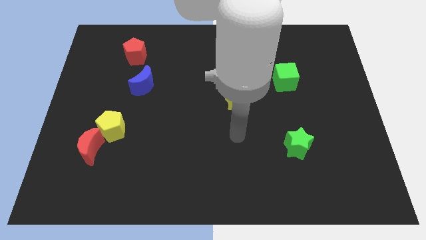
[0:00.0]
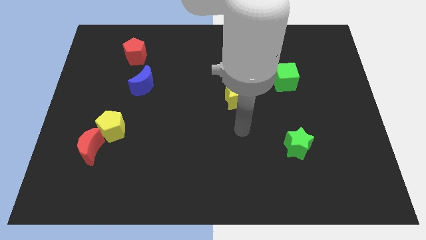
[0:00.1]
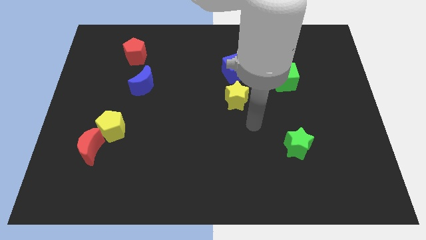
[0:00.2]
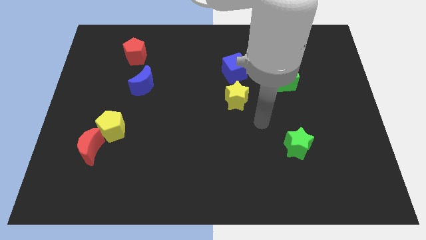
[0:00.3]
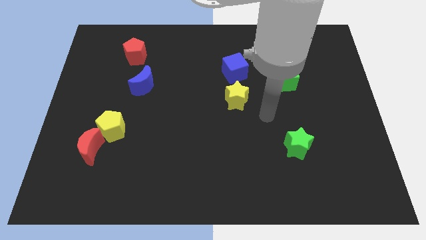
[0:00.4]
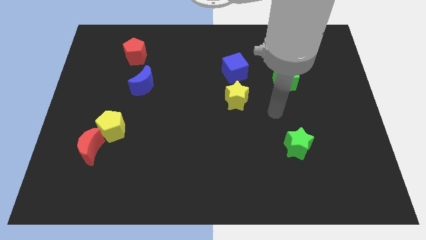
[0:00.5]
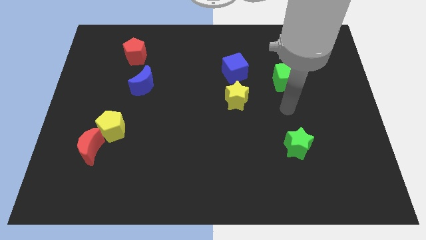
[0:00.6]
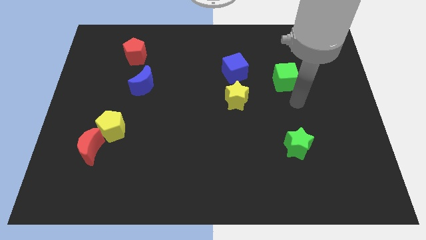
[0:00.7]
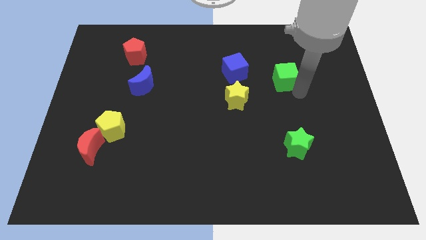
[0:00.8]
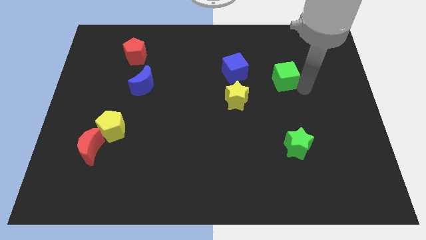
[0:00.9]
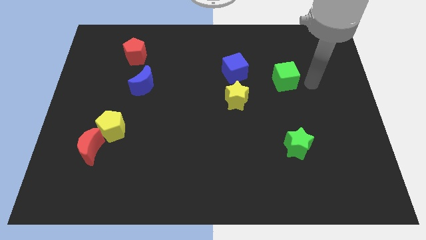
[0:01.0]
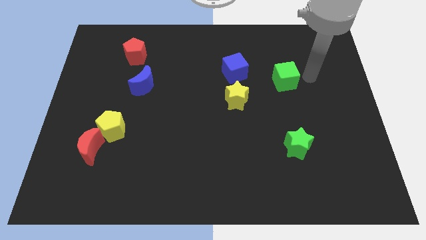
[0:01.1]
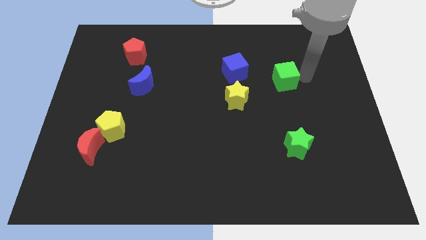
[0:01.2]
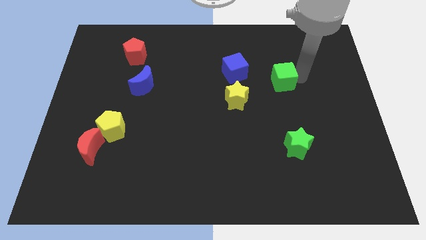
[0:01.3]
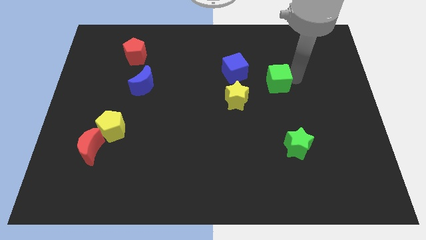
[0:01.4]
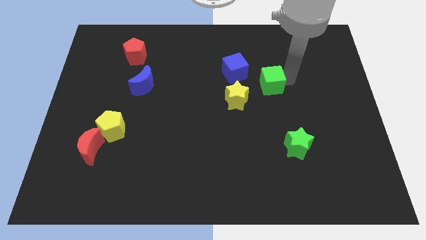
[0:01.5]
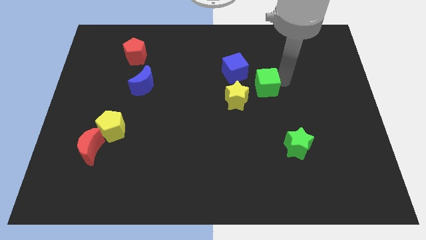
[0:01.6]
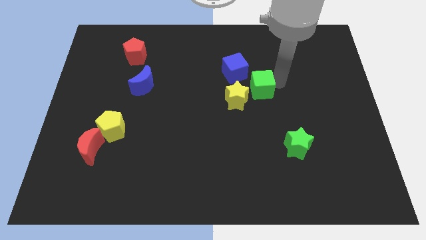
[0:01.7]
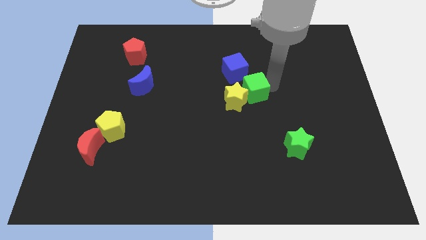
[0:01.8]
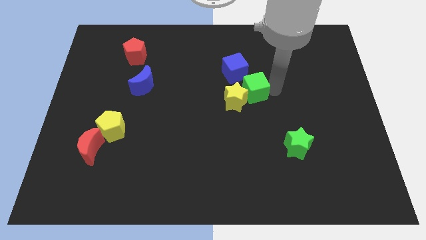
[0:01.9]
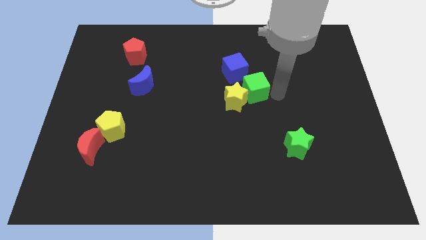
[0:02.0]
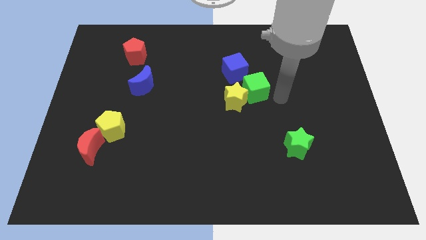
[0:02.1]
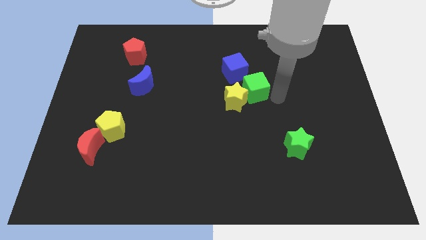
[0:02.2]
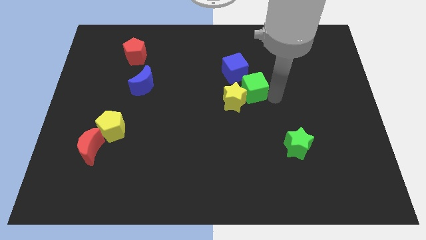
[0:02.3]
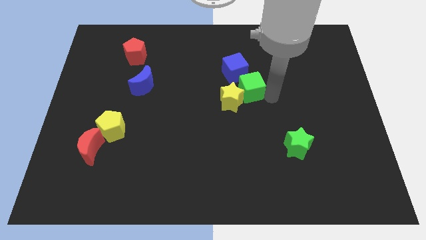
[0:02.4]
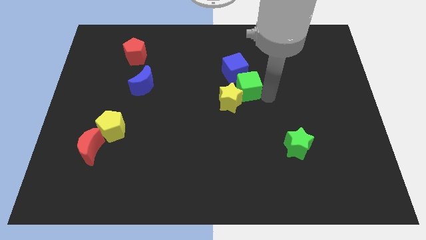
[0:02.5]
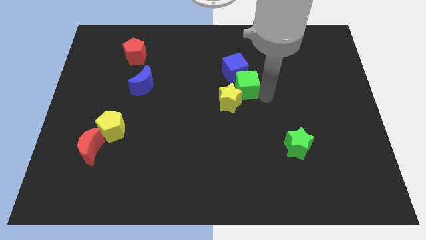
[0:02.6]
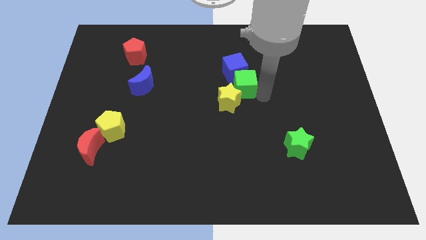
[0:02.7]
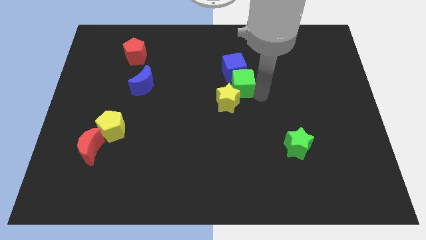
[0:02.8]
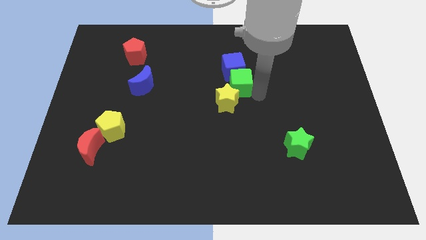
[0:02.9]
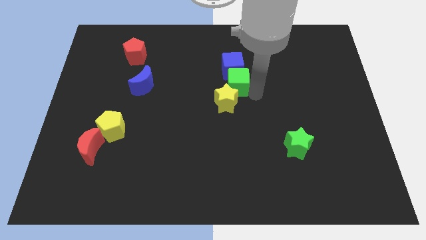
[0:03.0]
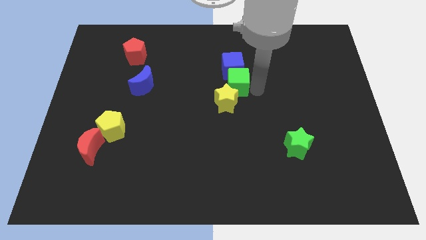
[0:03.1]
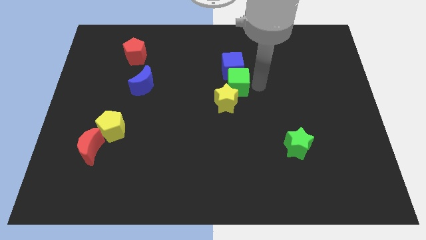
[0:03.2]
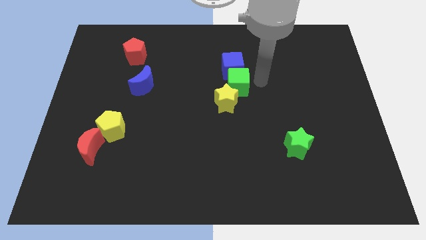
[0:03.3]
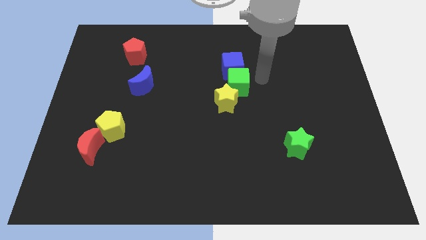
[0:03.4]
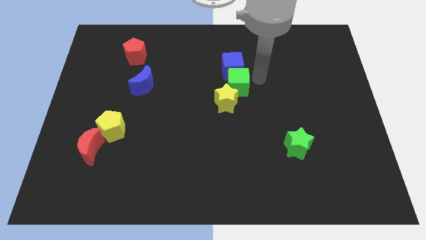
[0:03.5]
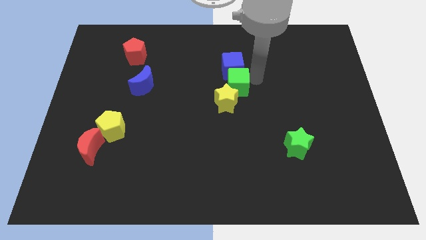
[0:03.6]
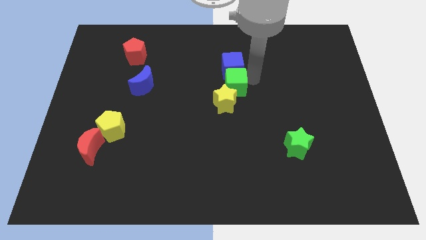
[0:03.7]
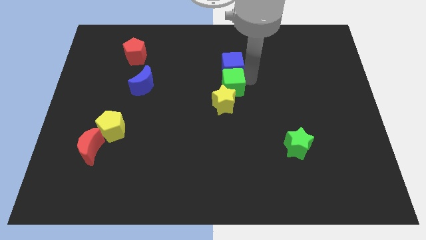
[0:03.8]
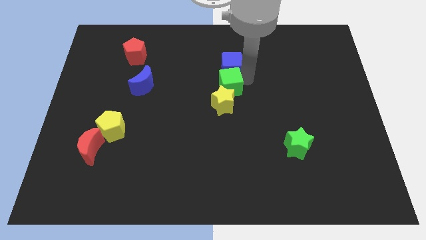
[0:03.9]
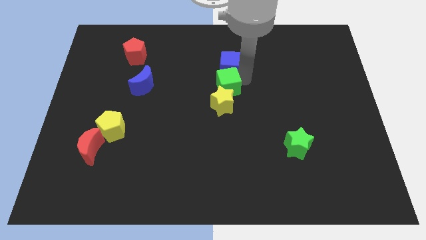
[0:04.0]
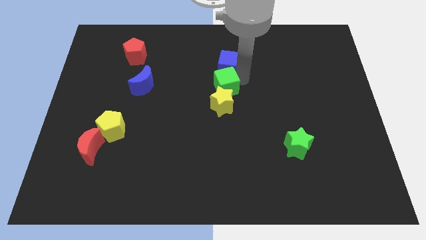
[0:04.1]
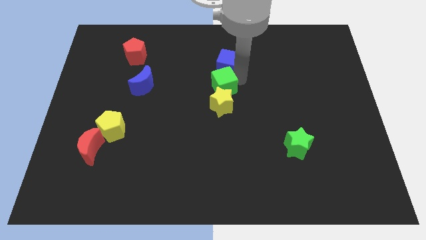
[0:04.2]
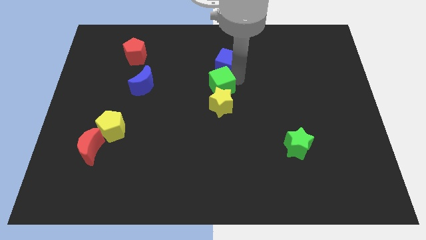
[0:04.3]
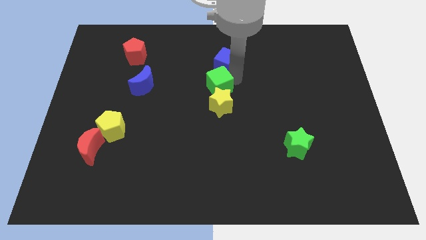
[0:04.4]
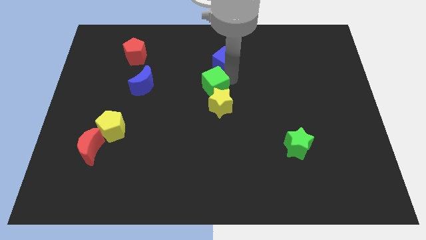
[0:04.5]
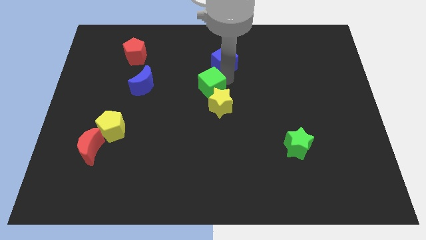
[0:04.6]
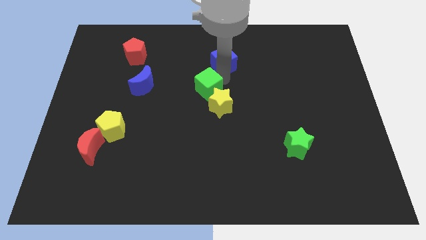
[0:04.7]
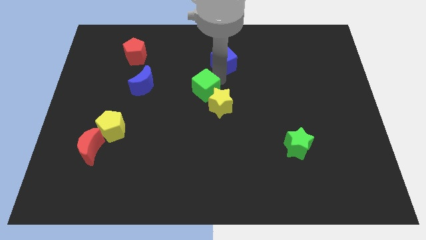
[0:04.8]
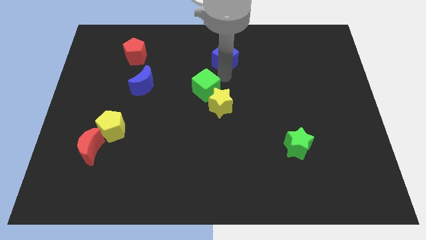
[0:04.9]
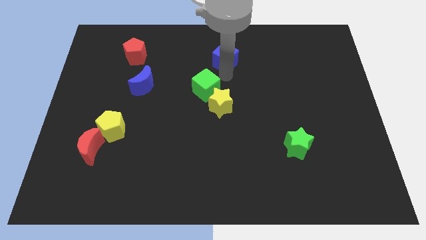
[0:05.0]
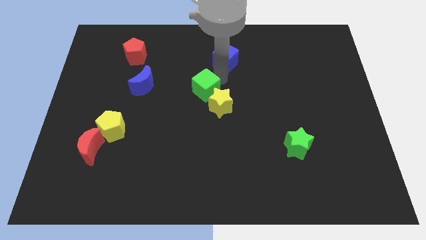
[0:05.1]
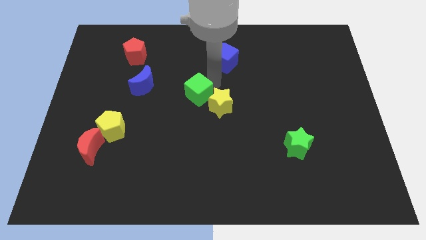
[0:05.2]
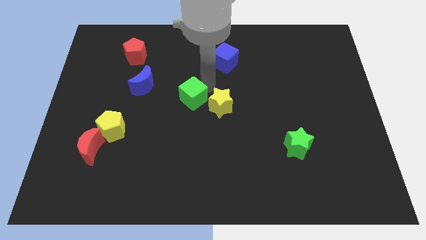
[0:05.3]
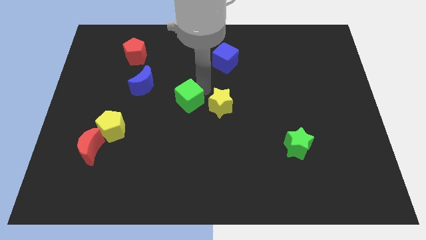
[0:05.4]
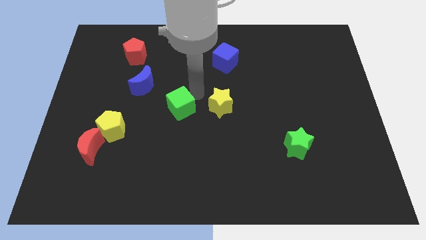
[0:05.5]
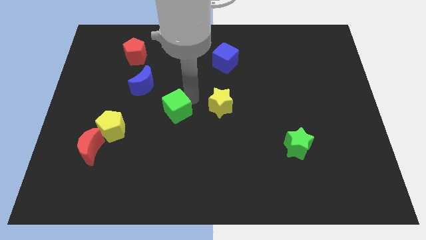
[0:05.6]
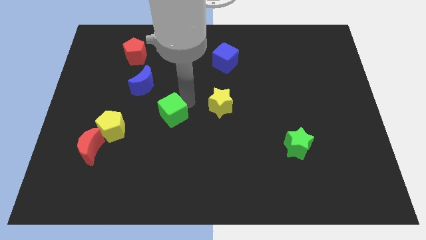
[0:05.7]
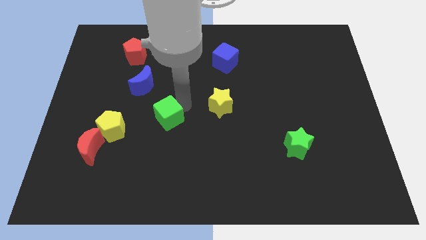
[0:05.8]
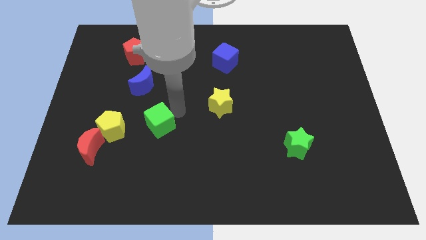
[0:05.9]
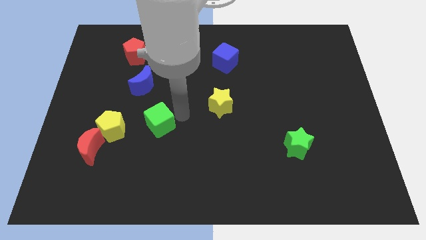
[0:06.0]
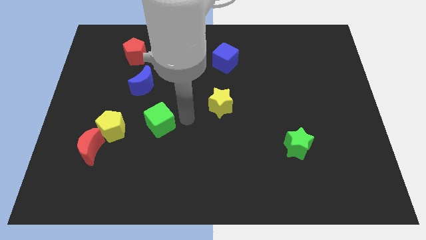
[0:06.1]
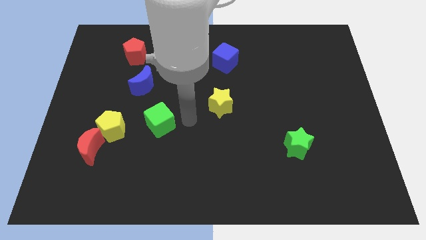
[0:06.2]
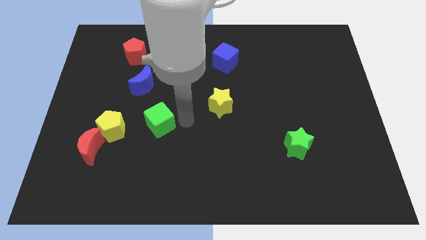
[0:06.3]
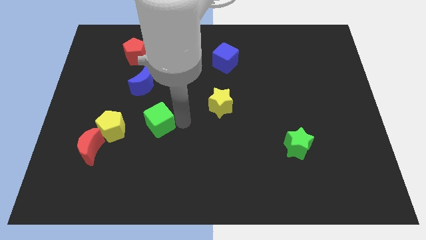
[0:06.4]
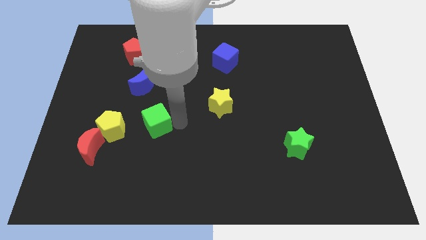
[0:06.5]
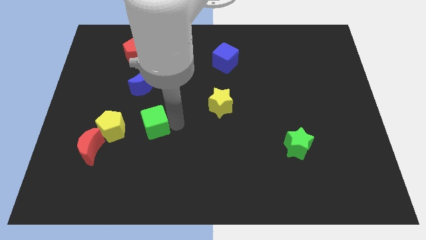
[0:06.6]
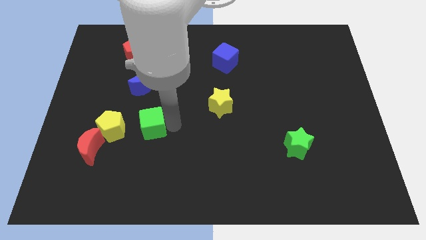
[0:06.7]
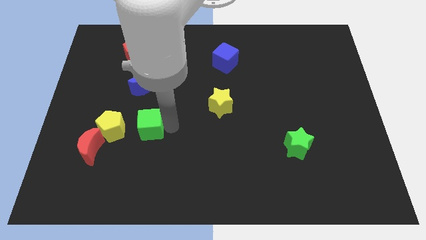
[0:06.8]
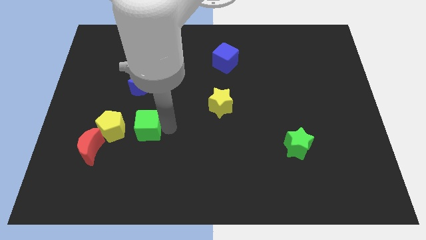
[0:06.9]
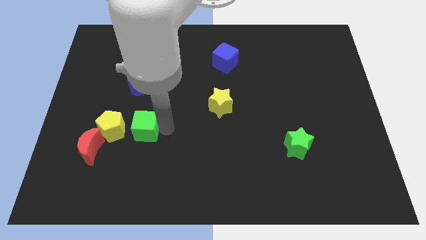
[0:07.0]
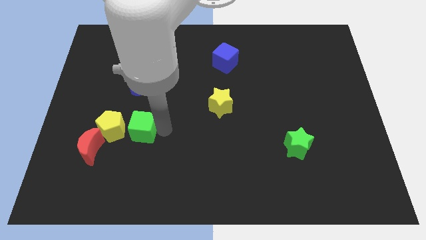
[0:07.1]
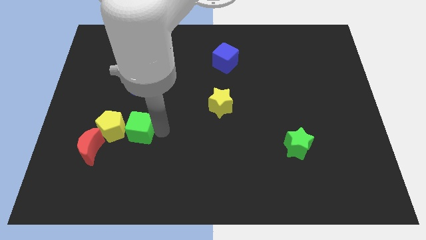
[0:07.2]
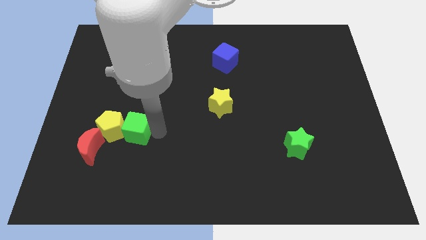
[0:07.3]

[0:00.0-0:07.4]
slide the green cube to the yellow pentagon

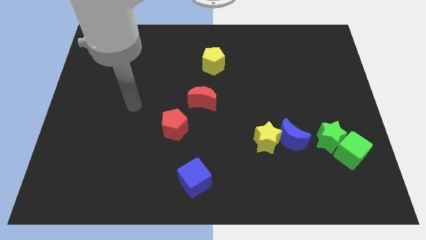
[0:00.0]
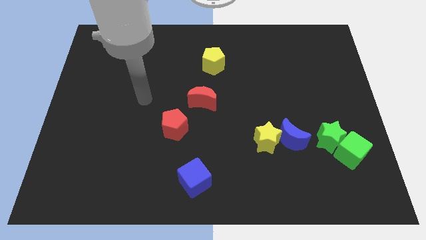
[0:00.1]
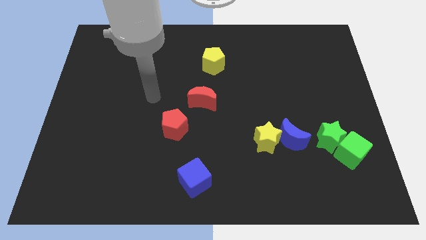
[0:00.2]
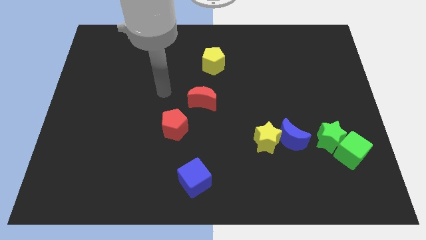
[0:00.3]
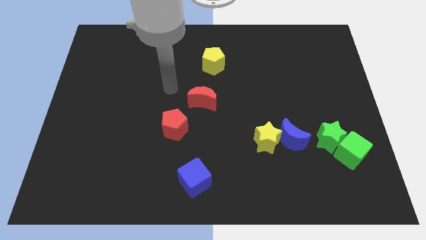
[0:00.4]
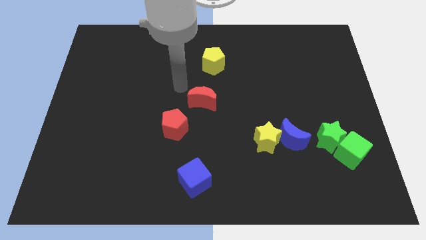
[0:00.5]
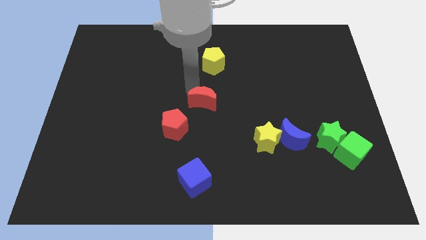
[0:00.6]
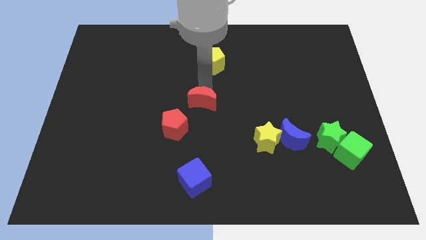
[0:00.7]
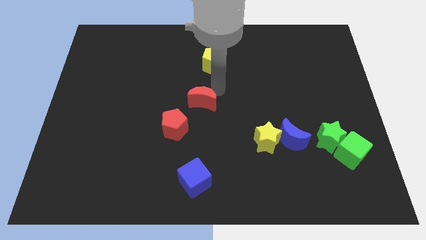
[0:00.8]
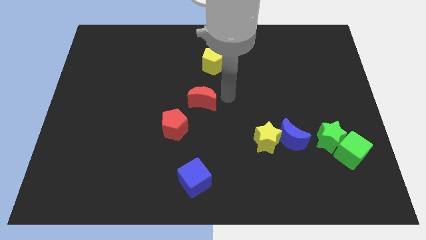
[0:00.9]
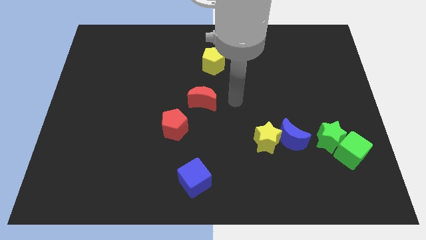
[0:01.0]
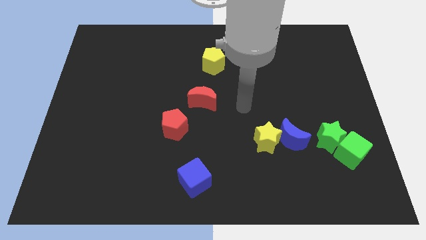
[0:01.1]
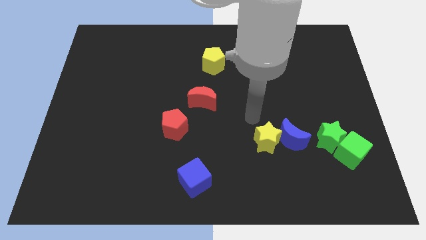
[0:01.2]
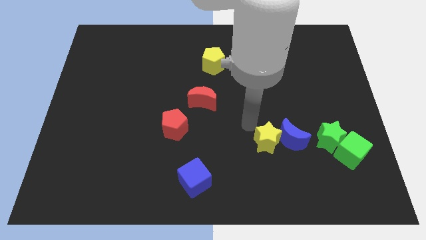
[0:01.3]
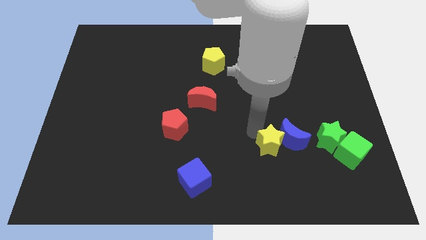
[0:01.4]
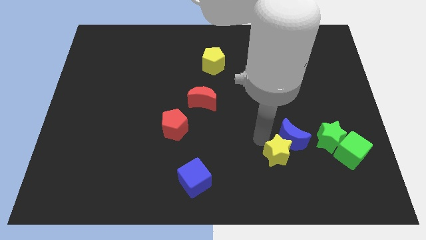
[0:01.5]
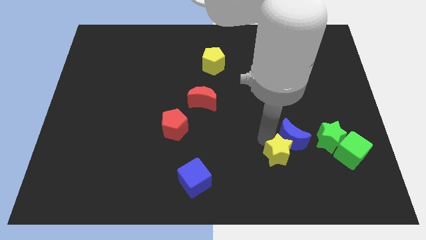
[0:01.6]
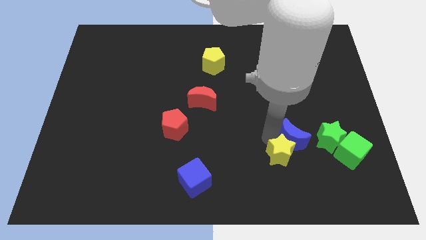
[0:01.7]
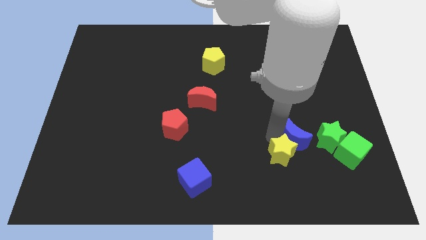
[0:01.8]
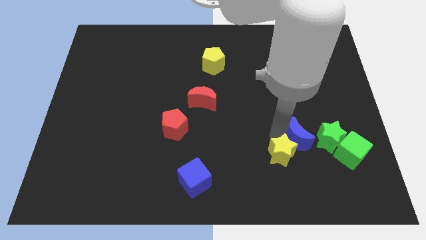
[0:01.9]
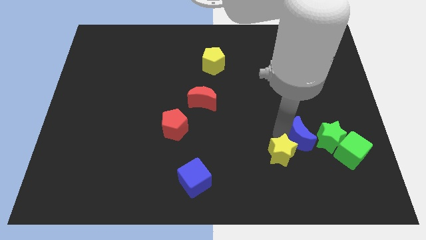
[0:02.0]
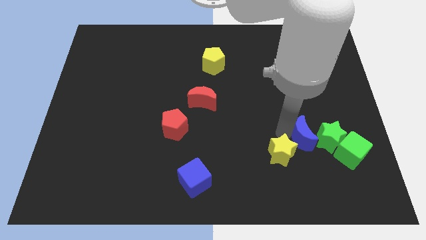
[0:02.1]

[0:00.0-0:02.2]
move the blue moon close to the green star
